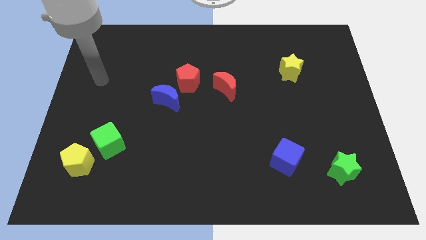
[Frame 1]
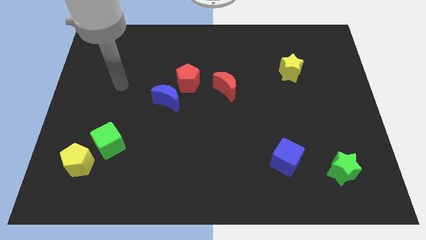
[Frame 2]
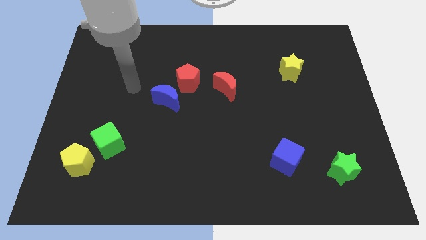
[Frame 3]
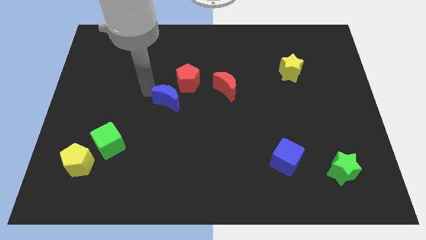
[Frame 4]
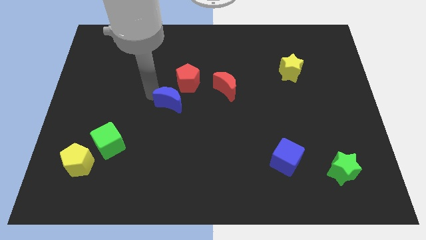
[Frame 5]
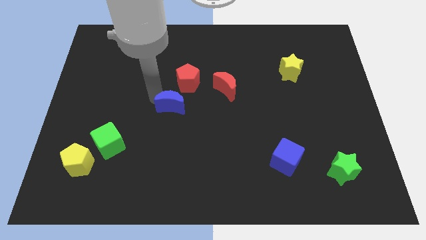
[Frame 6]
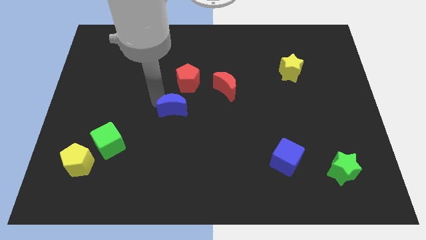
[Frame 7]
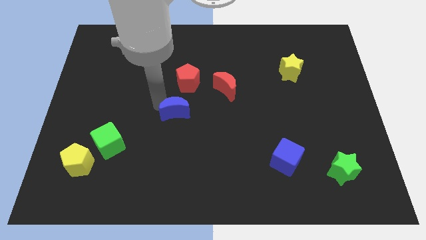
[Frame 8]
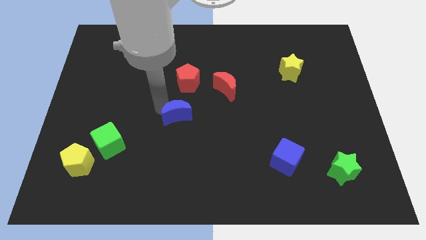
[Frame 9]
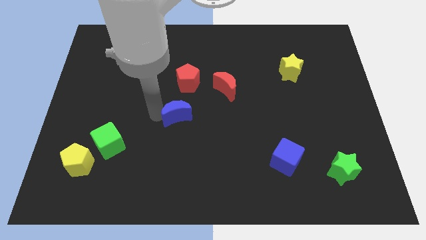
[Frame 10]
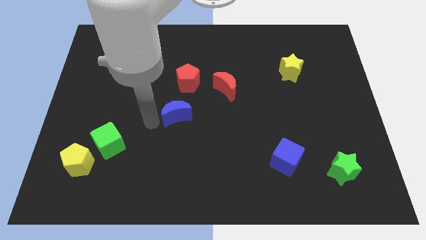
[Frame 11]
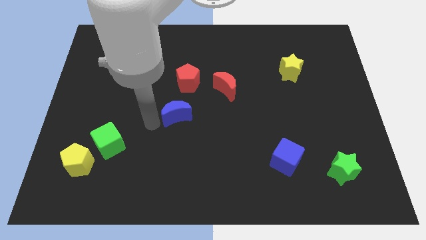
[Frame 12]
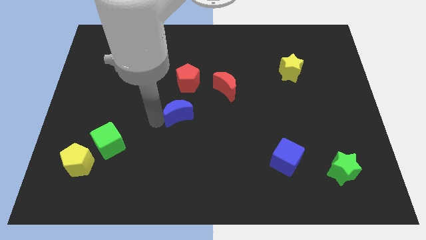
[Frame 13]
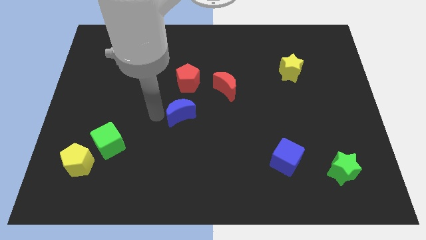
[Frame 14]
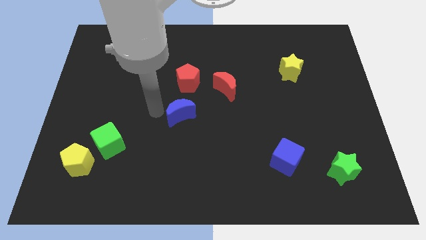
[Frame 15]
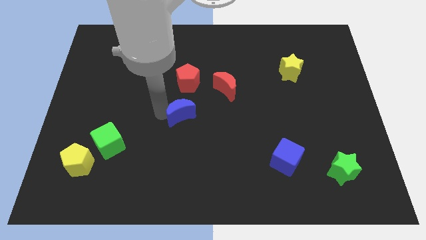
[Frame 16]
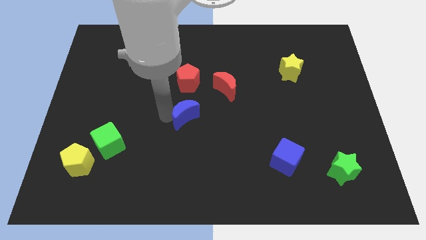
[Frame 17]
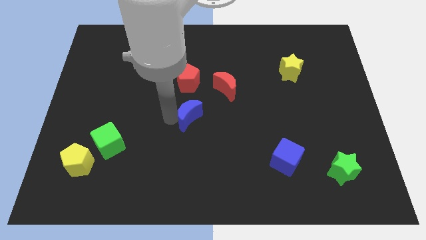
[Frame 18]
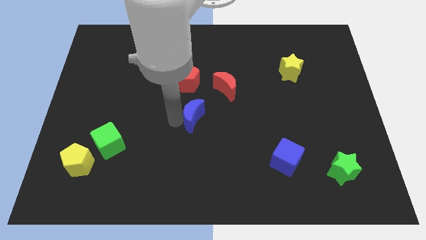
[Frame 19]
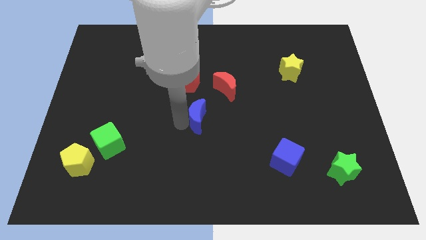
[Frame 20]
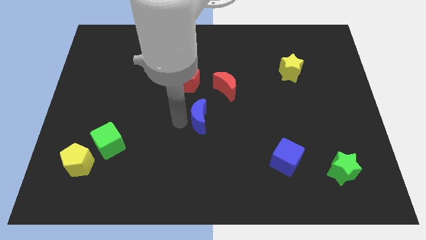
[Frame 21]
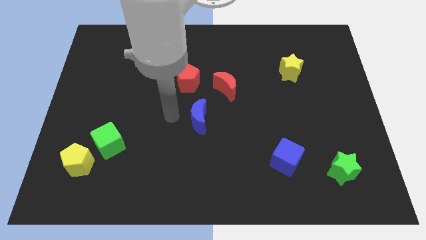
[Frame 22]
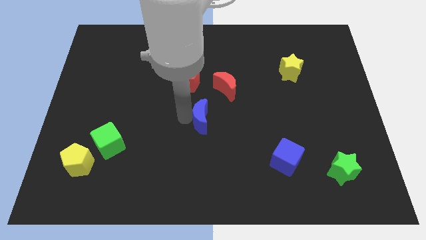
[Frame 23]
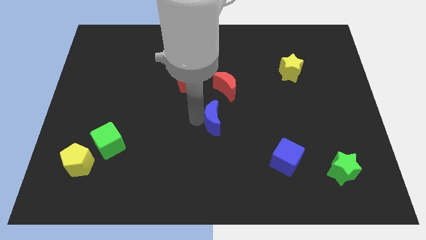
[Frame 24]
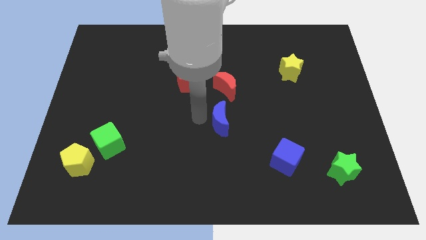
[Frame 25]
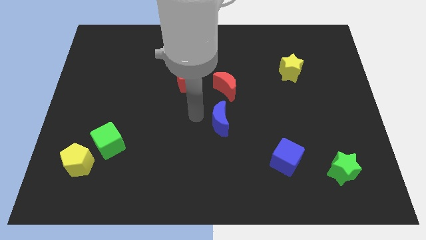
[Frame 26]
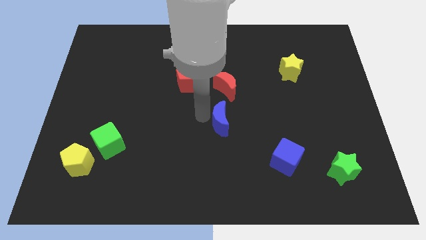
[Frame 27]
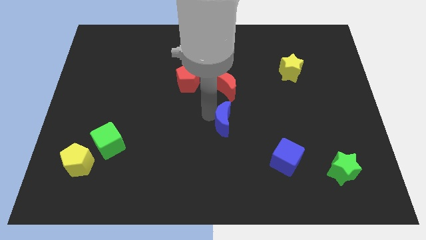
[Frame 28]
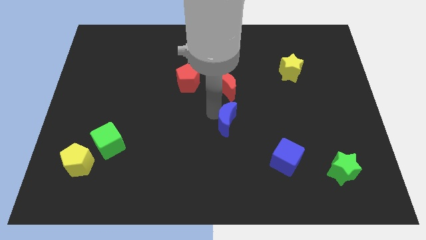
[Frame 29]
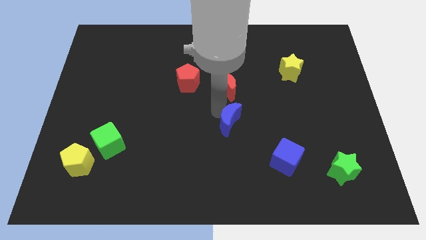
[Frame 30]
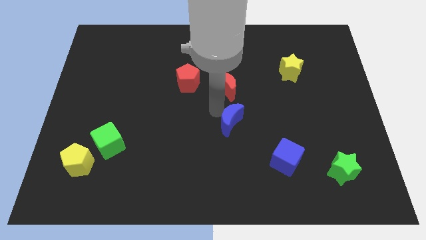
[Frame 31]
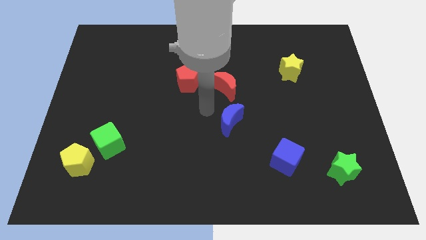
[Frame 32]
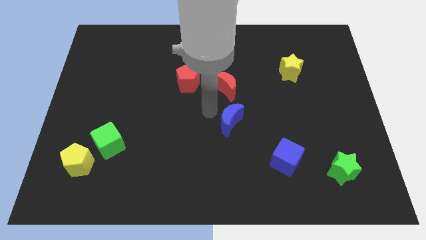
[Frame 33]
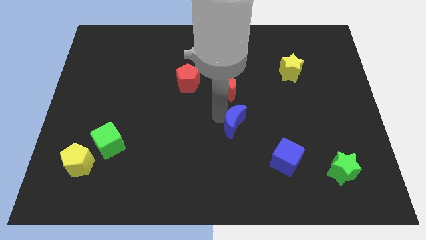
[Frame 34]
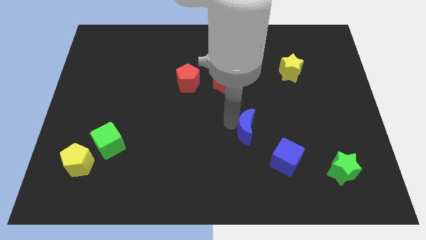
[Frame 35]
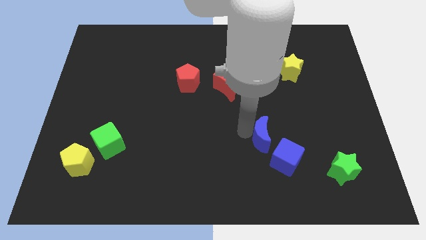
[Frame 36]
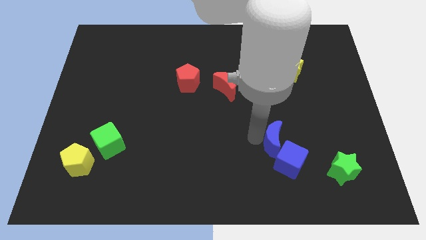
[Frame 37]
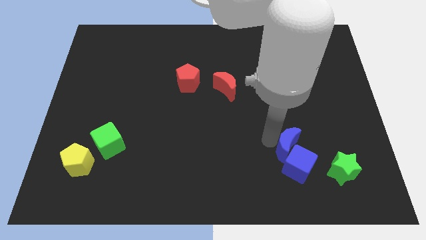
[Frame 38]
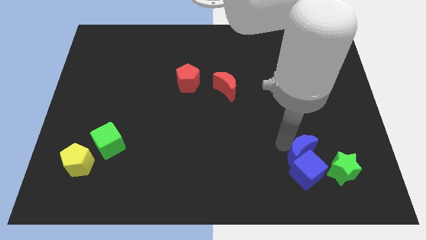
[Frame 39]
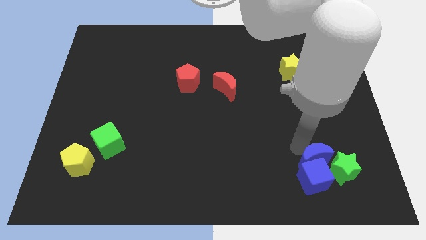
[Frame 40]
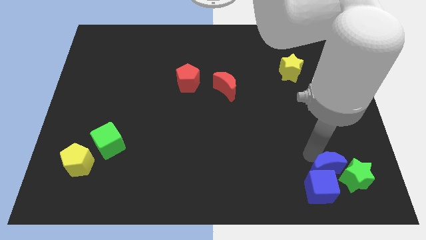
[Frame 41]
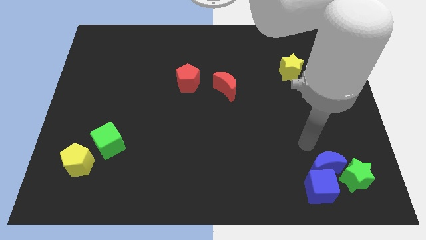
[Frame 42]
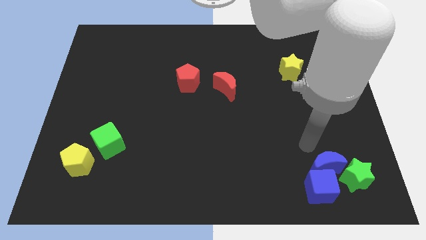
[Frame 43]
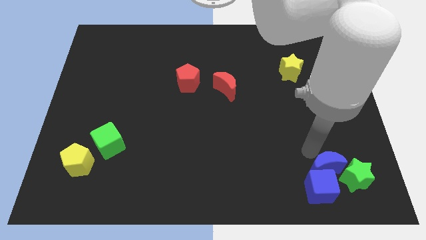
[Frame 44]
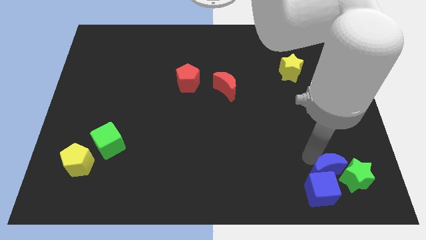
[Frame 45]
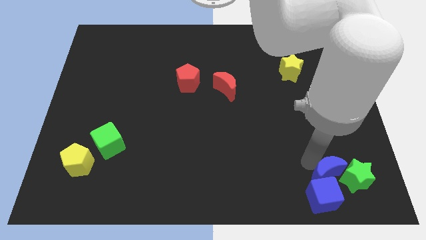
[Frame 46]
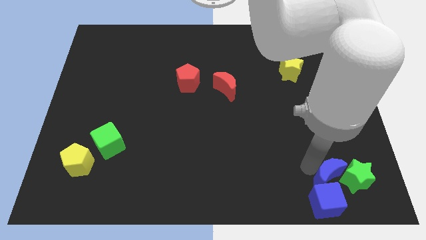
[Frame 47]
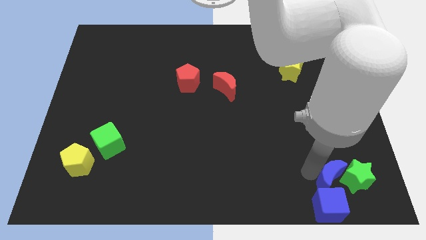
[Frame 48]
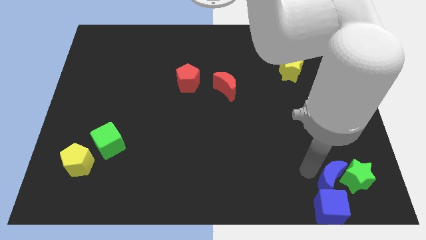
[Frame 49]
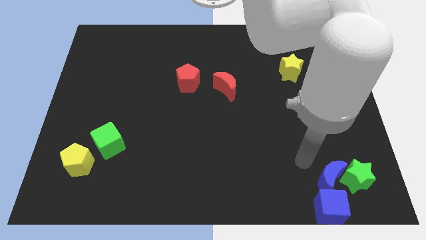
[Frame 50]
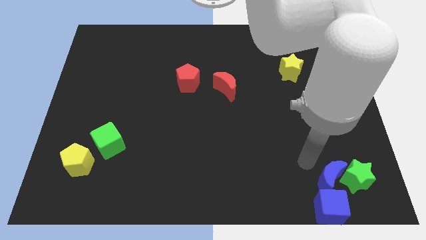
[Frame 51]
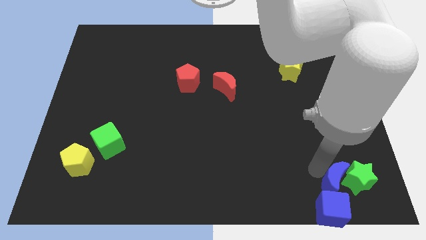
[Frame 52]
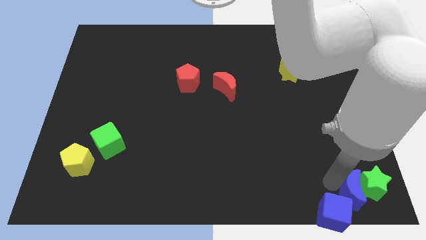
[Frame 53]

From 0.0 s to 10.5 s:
move the blue moon to the bottom right corner

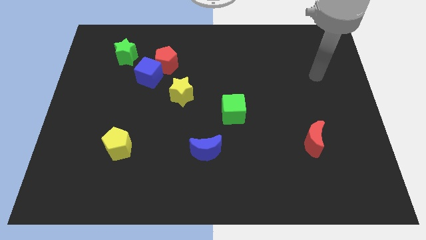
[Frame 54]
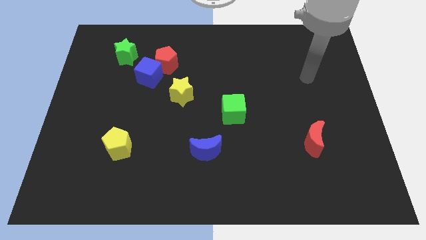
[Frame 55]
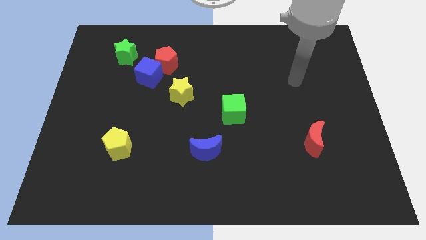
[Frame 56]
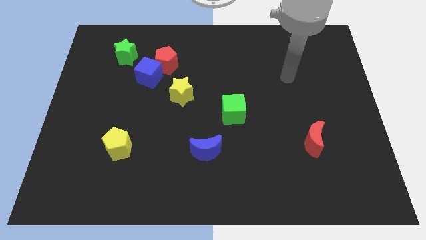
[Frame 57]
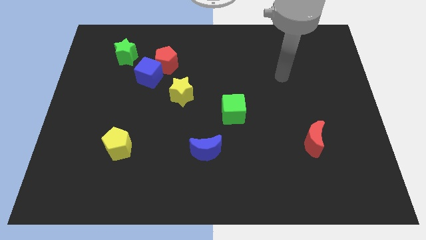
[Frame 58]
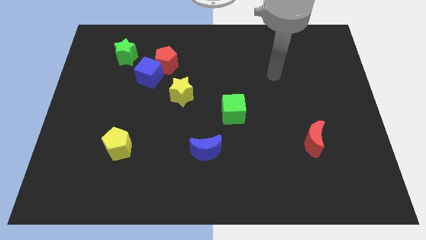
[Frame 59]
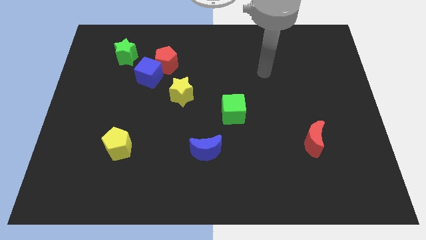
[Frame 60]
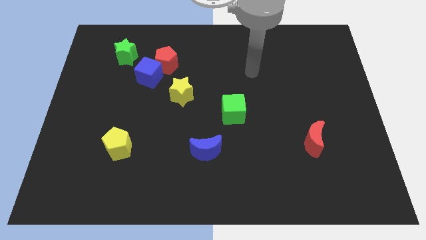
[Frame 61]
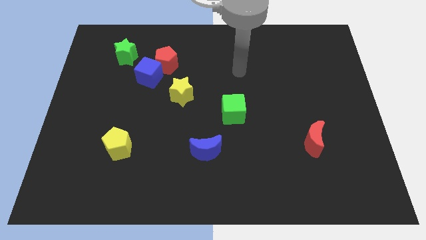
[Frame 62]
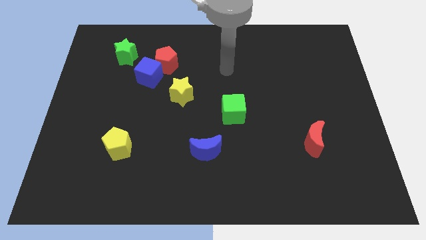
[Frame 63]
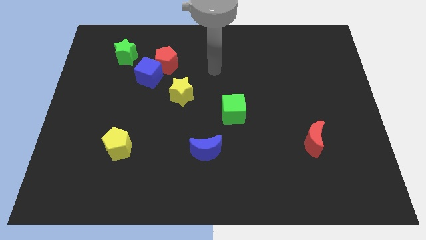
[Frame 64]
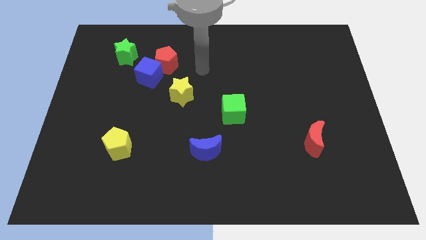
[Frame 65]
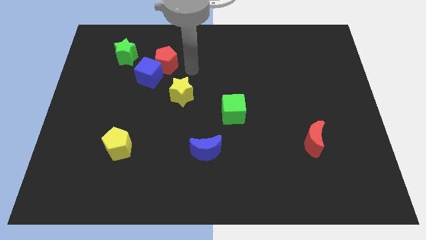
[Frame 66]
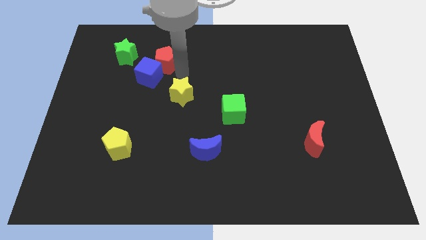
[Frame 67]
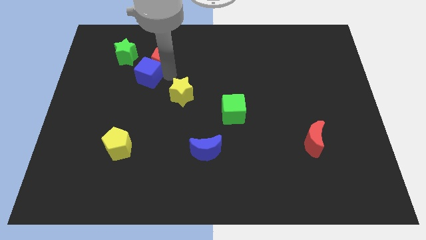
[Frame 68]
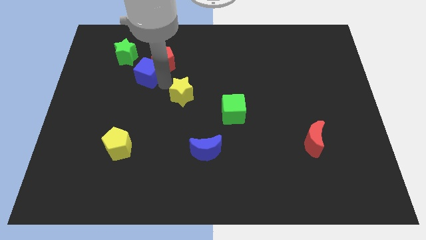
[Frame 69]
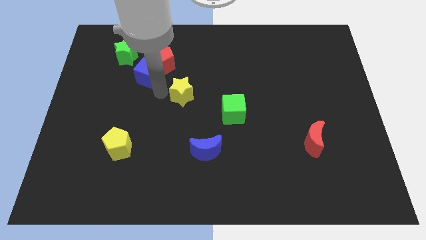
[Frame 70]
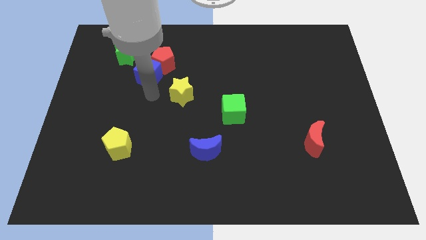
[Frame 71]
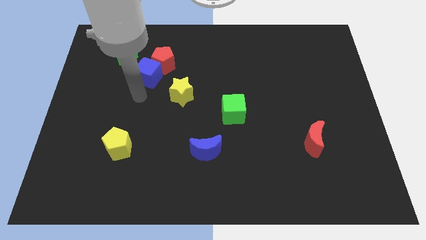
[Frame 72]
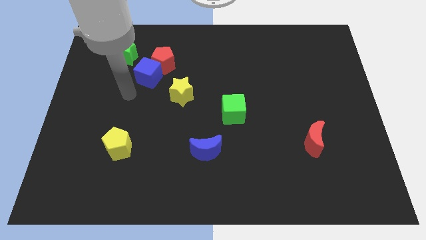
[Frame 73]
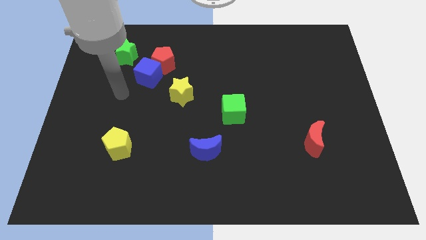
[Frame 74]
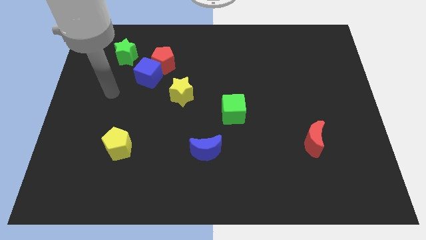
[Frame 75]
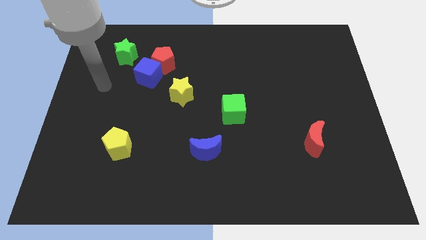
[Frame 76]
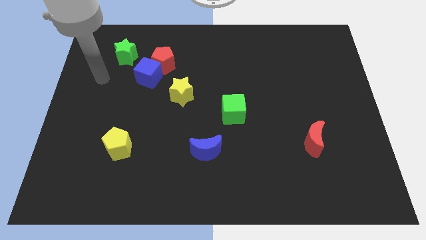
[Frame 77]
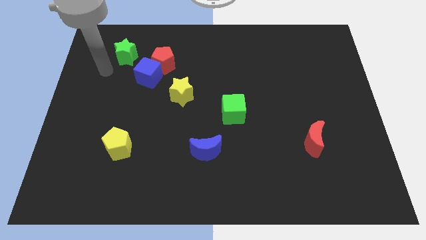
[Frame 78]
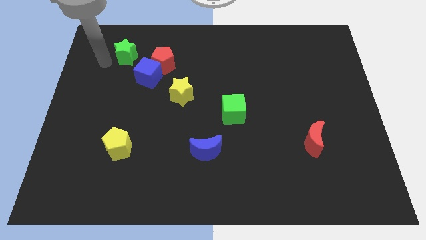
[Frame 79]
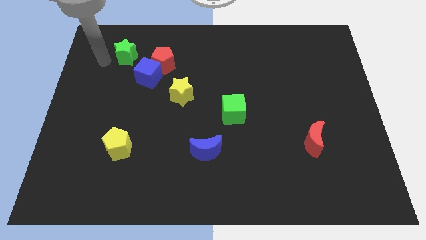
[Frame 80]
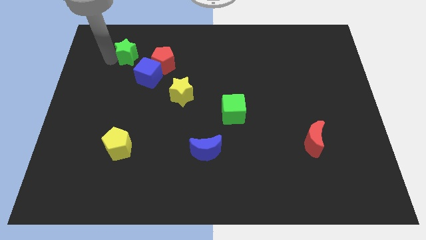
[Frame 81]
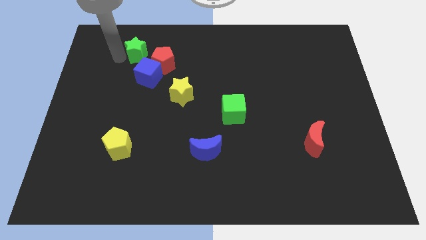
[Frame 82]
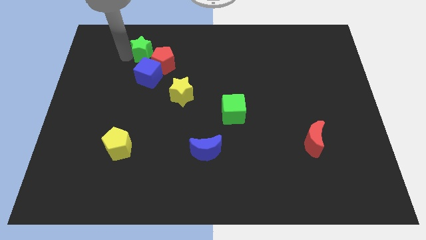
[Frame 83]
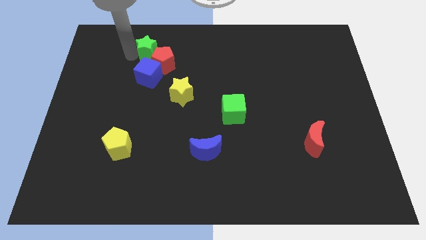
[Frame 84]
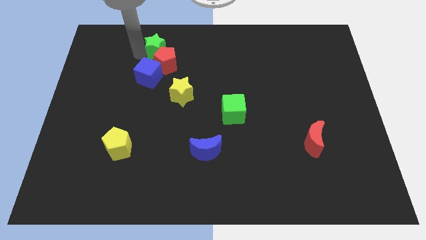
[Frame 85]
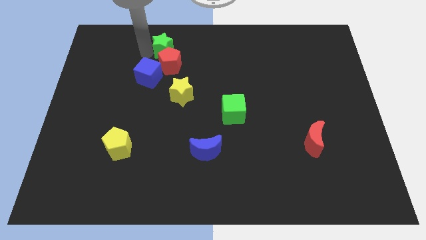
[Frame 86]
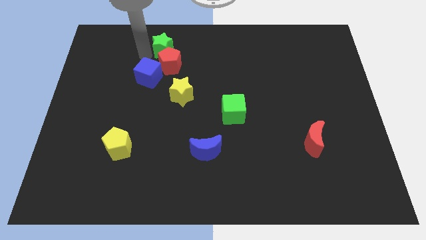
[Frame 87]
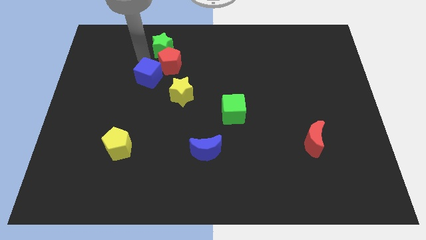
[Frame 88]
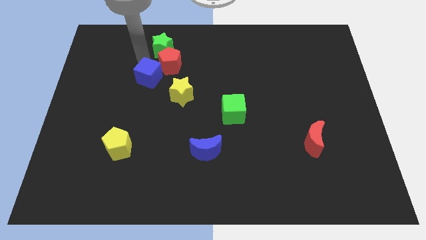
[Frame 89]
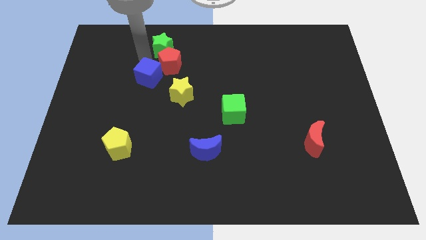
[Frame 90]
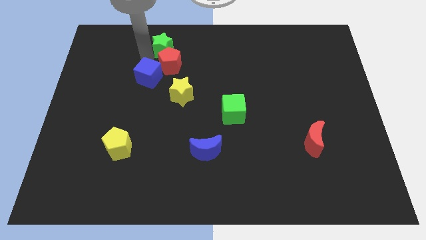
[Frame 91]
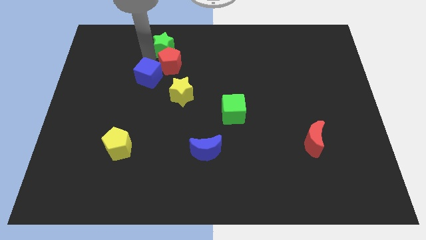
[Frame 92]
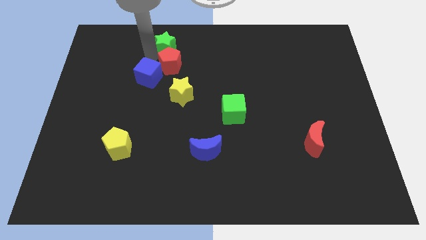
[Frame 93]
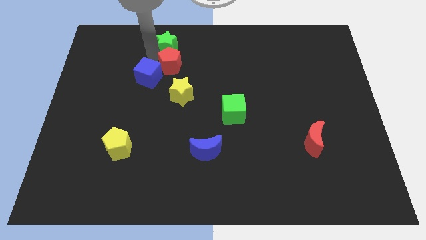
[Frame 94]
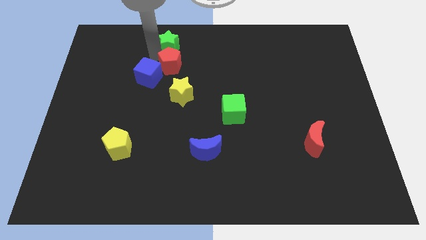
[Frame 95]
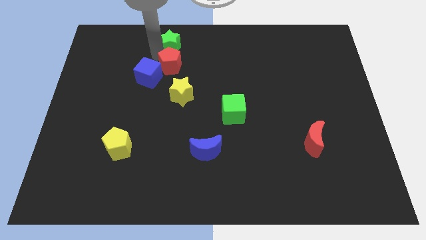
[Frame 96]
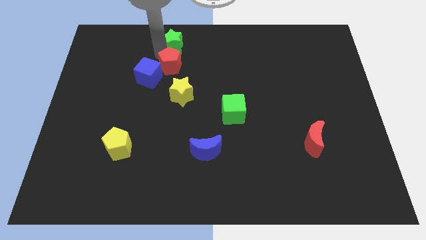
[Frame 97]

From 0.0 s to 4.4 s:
put the green star to the top
